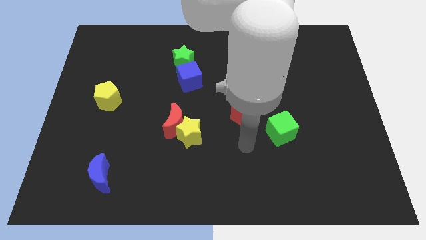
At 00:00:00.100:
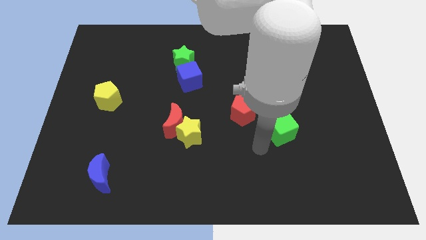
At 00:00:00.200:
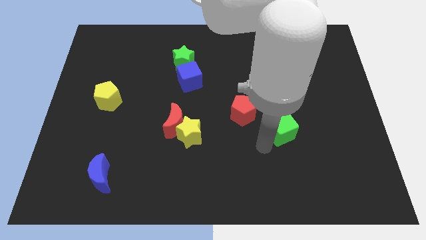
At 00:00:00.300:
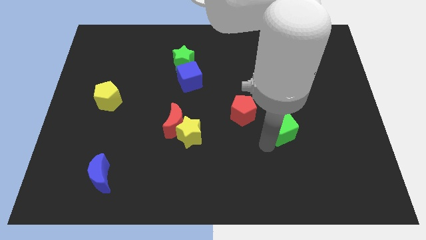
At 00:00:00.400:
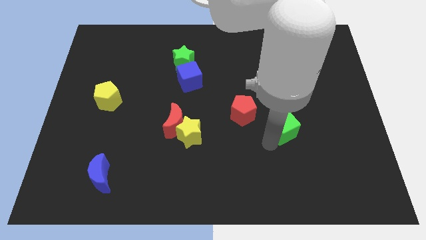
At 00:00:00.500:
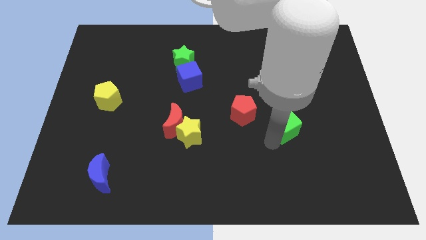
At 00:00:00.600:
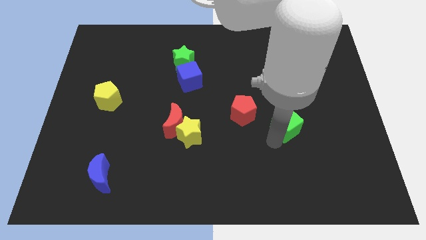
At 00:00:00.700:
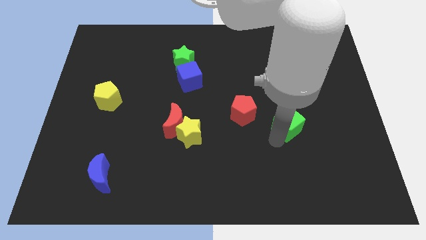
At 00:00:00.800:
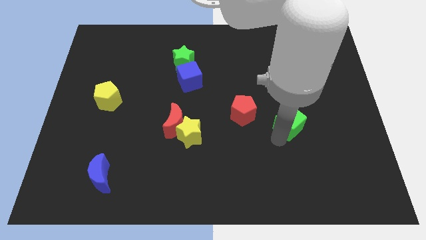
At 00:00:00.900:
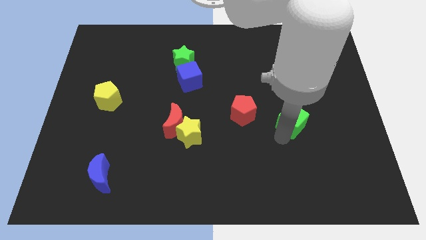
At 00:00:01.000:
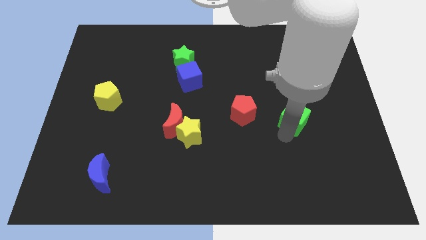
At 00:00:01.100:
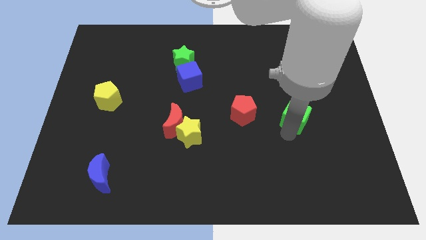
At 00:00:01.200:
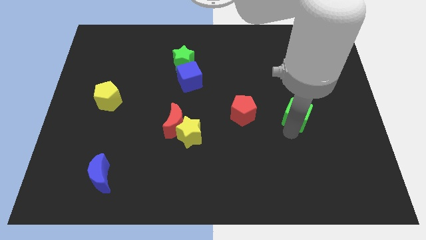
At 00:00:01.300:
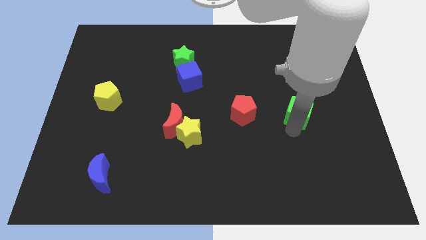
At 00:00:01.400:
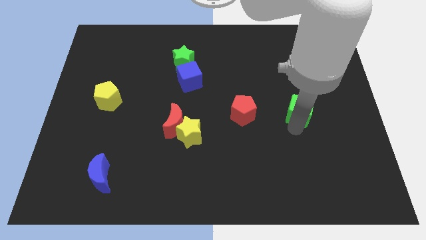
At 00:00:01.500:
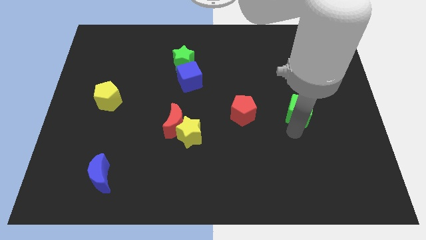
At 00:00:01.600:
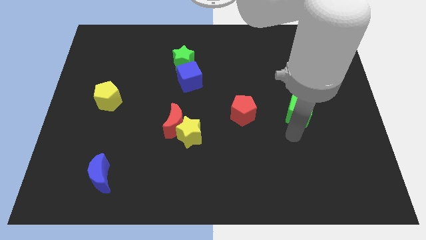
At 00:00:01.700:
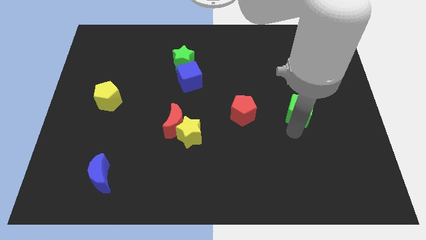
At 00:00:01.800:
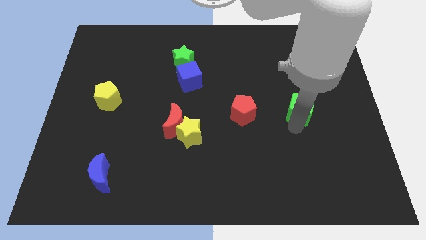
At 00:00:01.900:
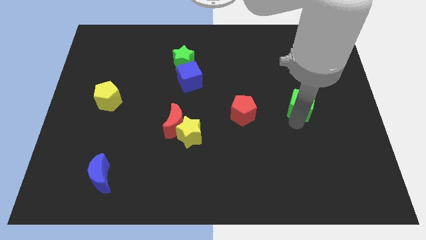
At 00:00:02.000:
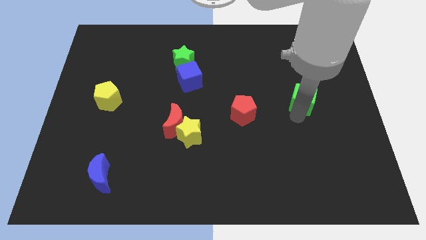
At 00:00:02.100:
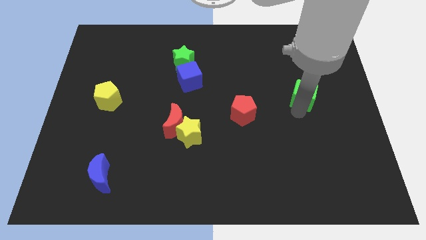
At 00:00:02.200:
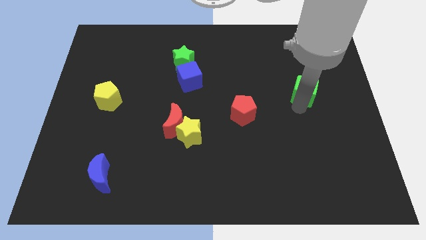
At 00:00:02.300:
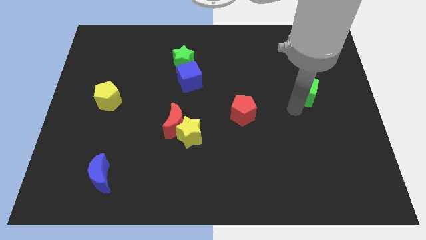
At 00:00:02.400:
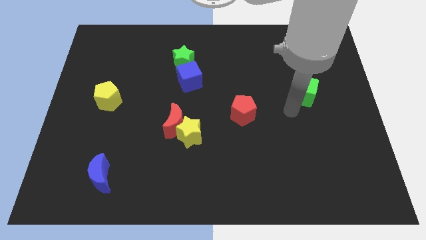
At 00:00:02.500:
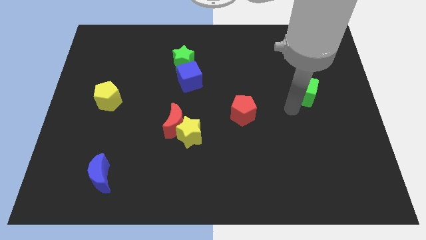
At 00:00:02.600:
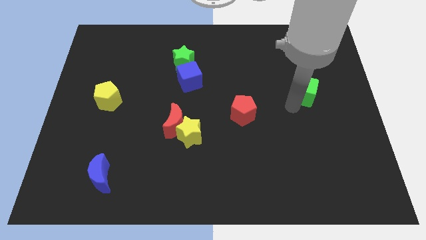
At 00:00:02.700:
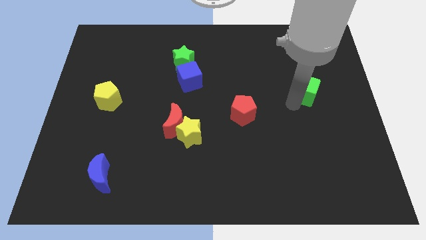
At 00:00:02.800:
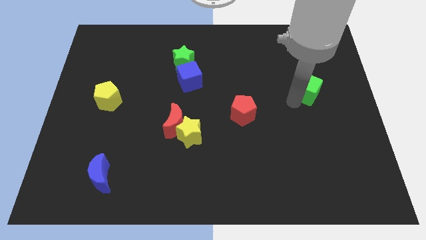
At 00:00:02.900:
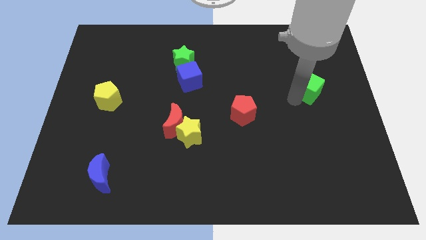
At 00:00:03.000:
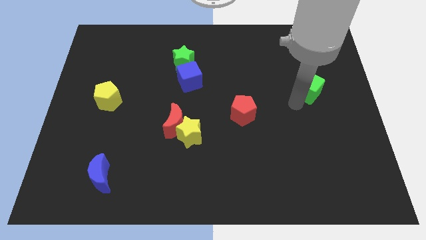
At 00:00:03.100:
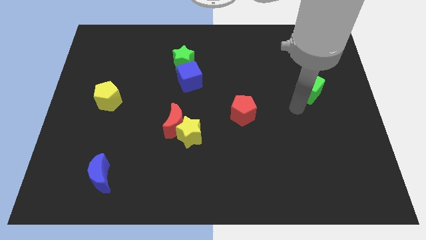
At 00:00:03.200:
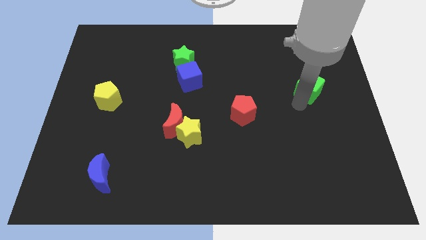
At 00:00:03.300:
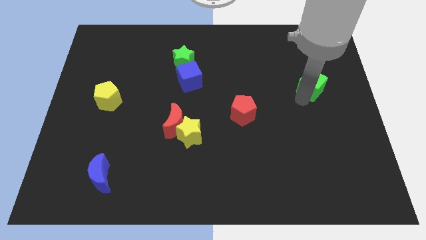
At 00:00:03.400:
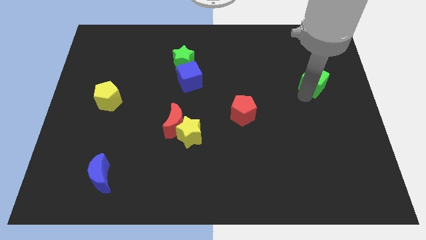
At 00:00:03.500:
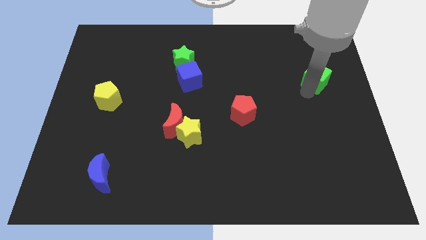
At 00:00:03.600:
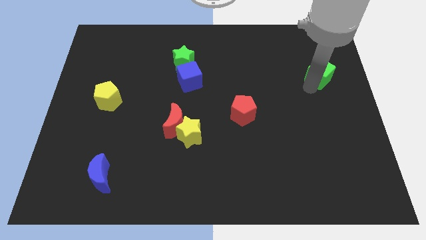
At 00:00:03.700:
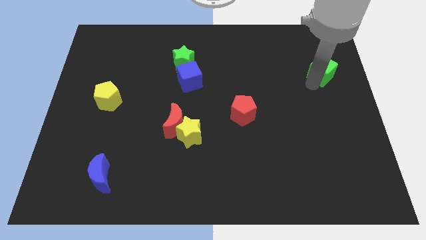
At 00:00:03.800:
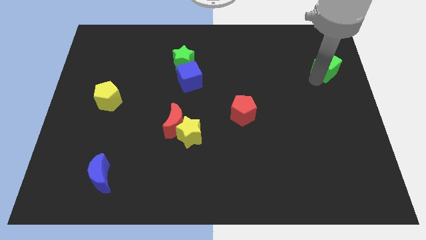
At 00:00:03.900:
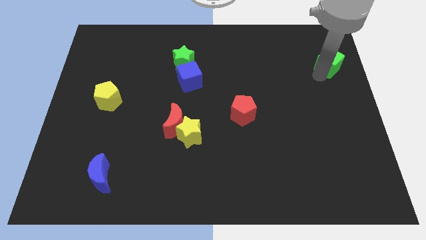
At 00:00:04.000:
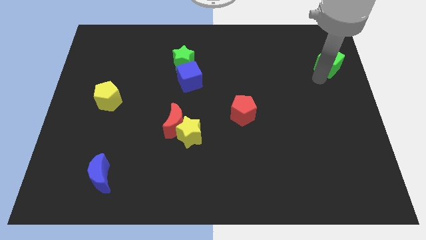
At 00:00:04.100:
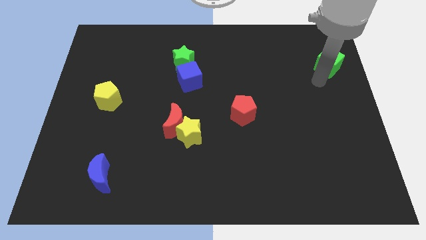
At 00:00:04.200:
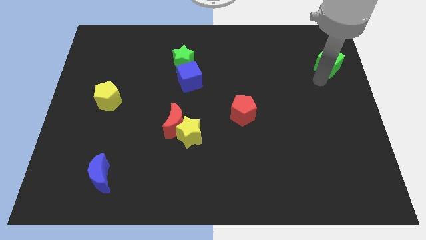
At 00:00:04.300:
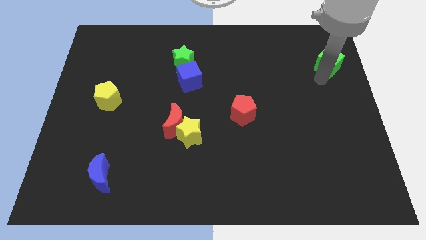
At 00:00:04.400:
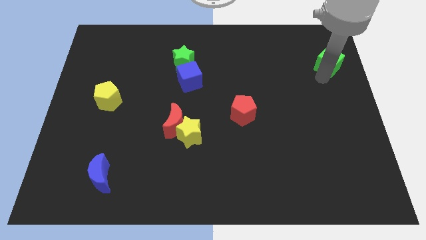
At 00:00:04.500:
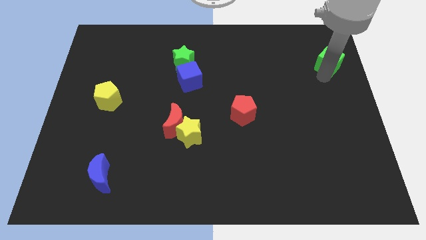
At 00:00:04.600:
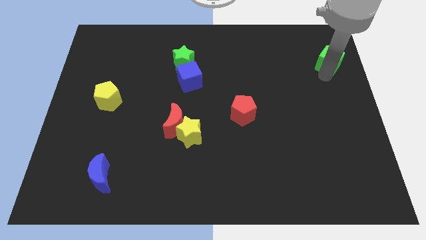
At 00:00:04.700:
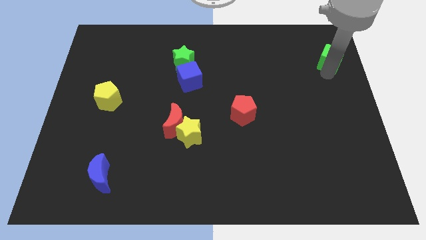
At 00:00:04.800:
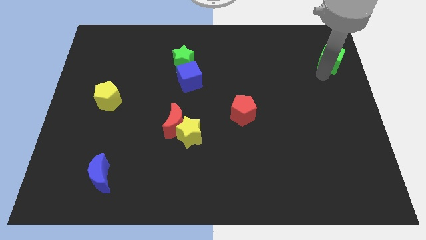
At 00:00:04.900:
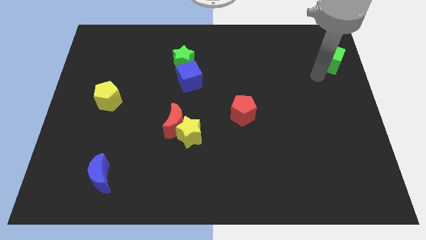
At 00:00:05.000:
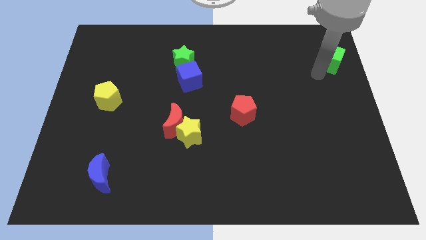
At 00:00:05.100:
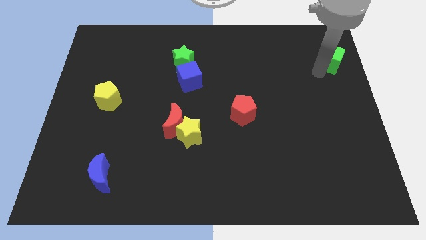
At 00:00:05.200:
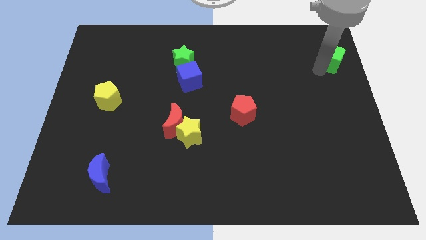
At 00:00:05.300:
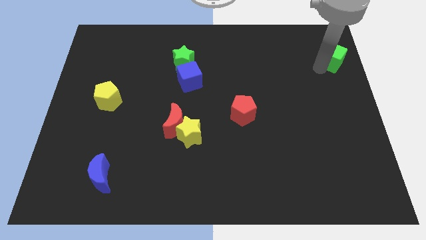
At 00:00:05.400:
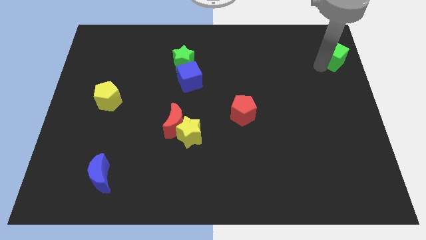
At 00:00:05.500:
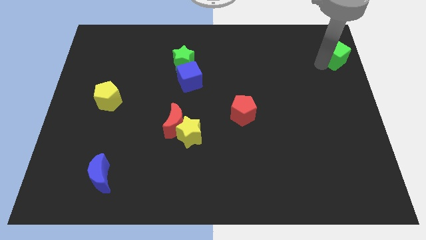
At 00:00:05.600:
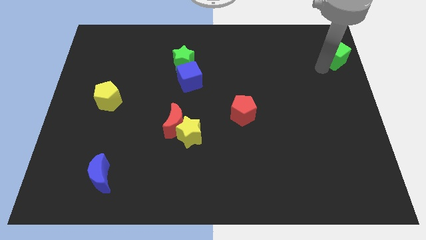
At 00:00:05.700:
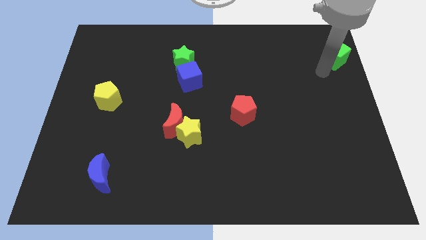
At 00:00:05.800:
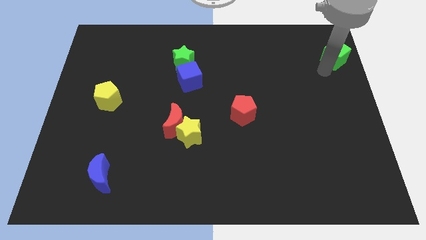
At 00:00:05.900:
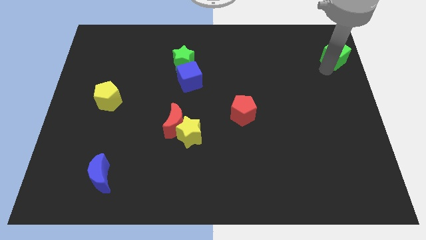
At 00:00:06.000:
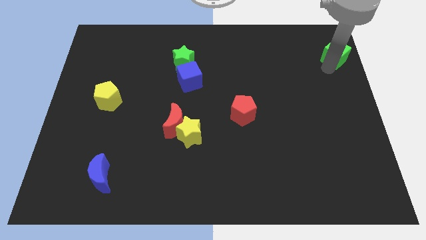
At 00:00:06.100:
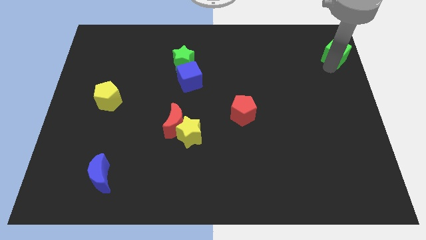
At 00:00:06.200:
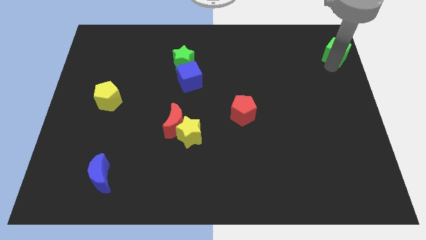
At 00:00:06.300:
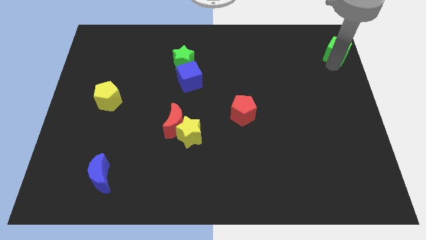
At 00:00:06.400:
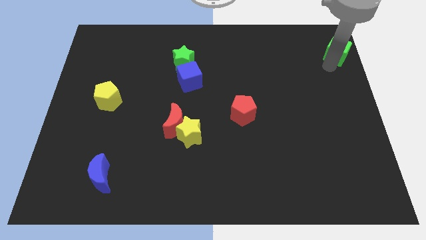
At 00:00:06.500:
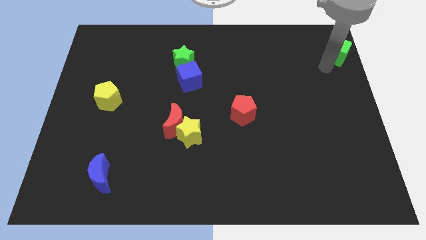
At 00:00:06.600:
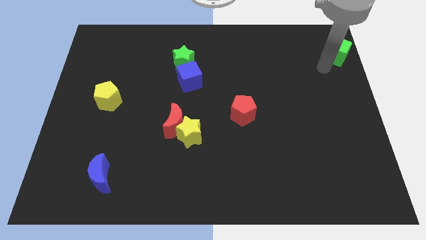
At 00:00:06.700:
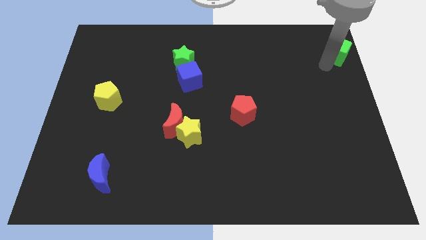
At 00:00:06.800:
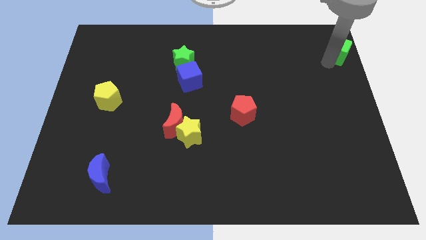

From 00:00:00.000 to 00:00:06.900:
put the green cube to the top right corner
